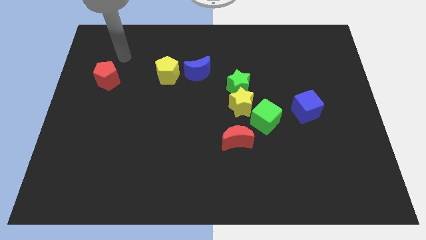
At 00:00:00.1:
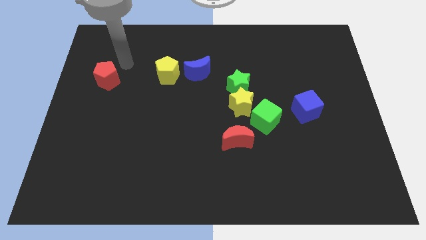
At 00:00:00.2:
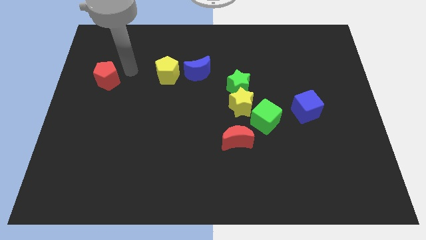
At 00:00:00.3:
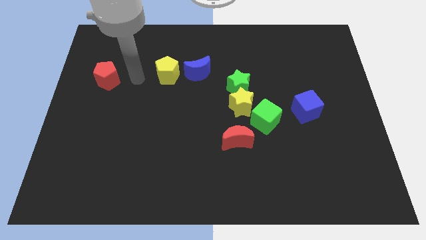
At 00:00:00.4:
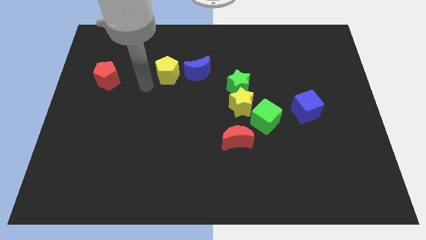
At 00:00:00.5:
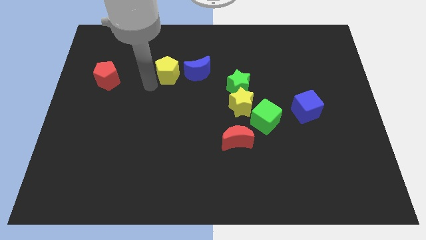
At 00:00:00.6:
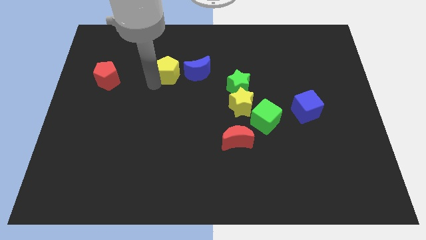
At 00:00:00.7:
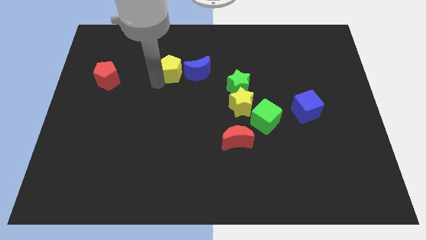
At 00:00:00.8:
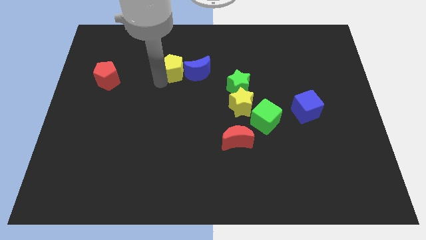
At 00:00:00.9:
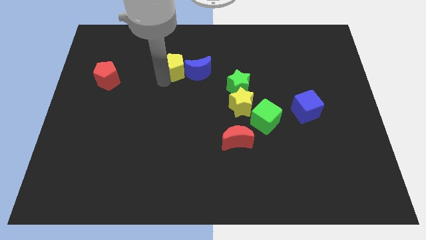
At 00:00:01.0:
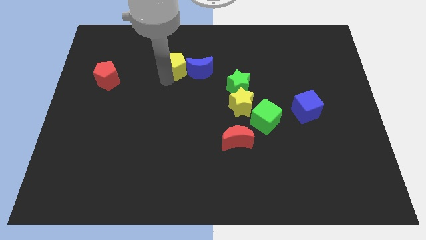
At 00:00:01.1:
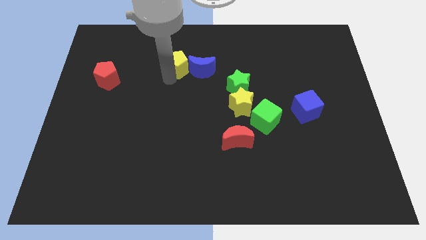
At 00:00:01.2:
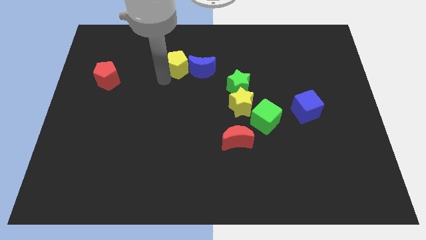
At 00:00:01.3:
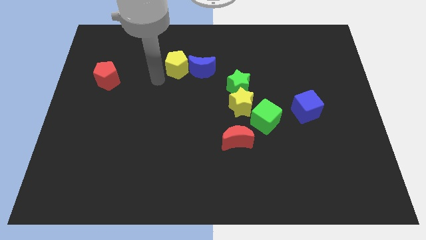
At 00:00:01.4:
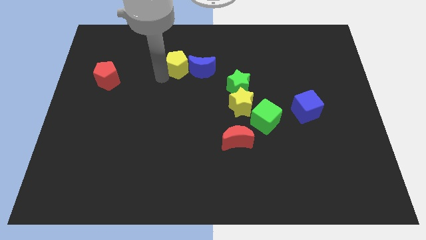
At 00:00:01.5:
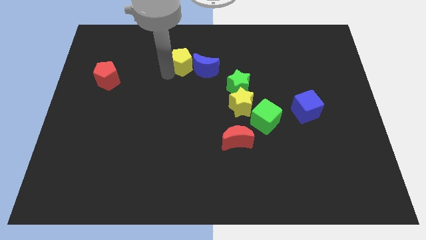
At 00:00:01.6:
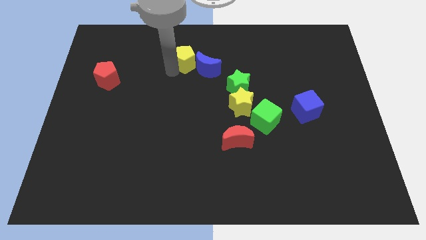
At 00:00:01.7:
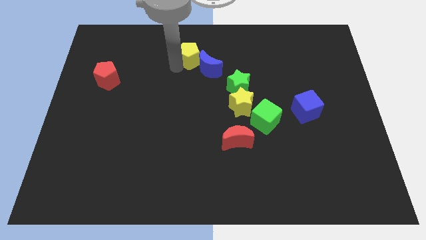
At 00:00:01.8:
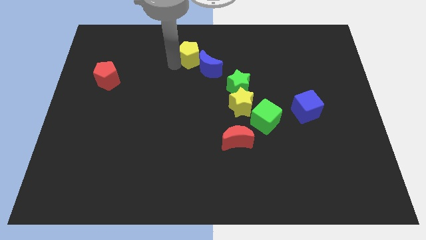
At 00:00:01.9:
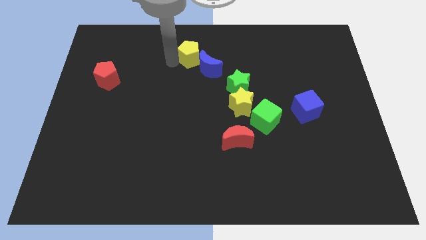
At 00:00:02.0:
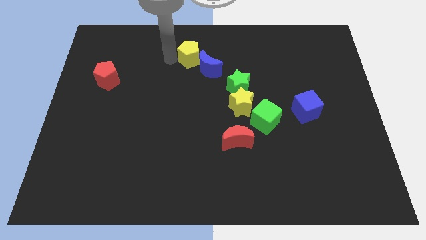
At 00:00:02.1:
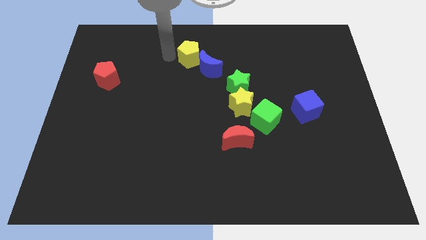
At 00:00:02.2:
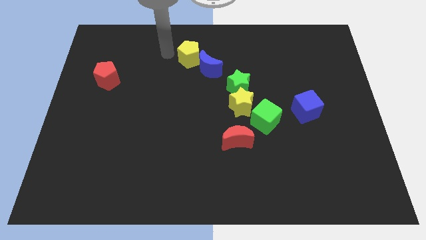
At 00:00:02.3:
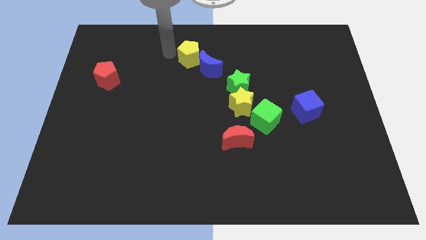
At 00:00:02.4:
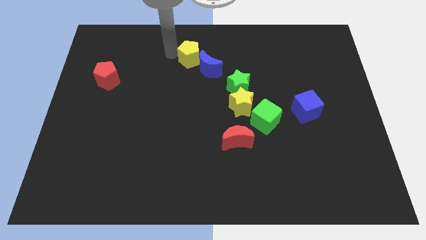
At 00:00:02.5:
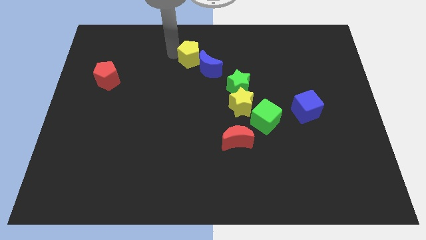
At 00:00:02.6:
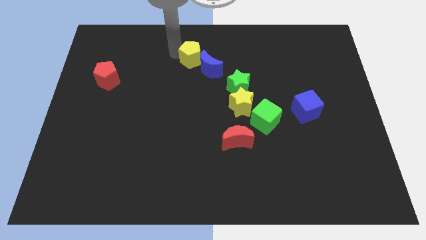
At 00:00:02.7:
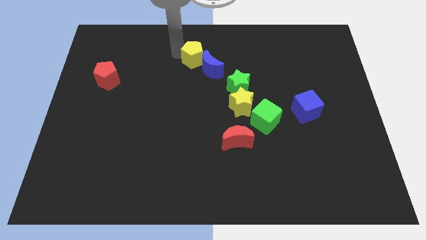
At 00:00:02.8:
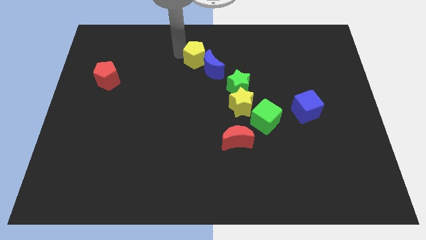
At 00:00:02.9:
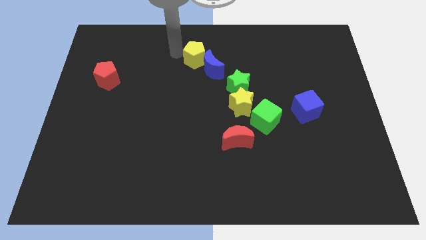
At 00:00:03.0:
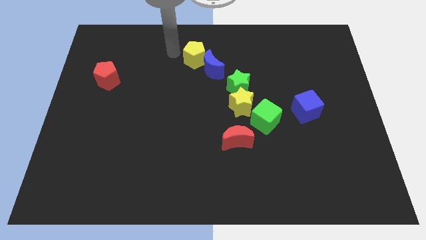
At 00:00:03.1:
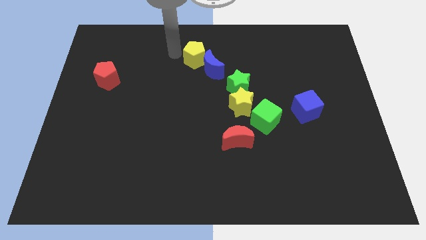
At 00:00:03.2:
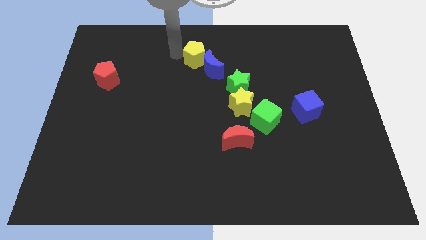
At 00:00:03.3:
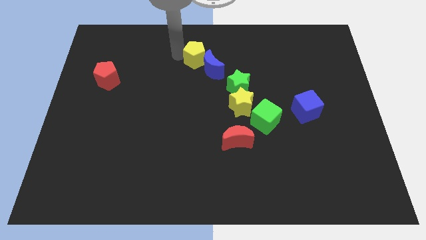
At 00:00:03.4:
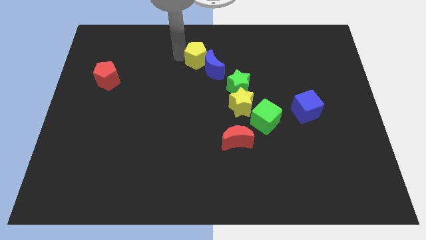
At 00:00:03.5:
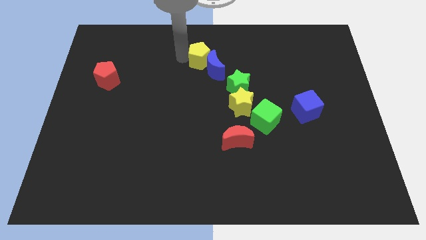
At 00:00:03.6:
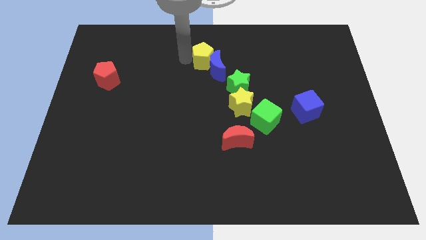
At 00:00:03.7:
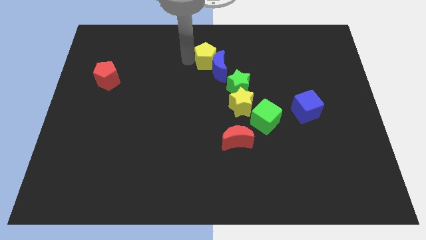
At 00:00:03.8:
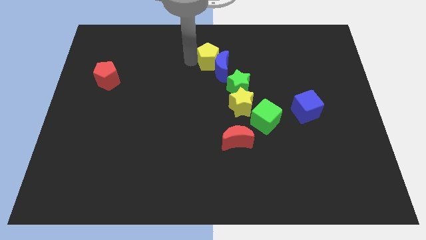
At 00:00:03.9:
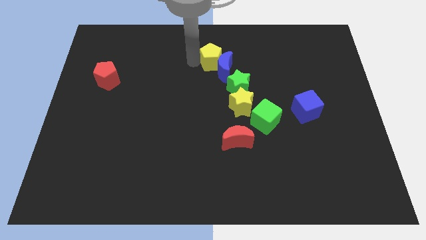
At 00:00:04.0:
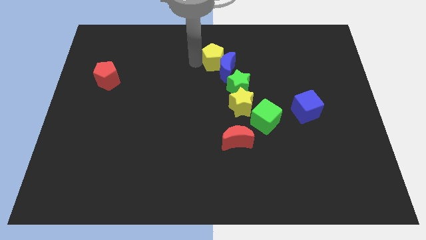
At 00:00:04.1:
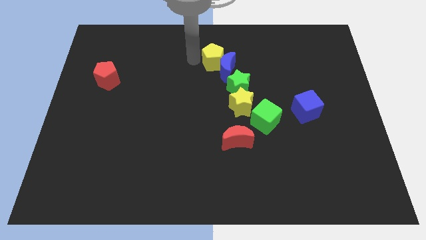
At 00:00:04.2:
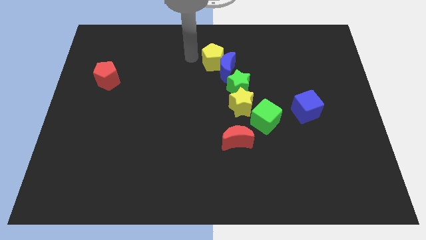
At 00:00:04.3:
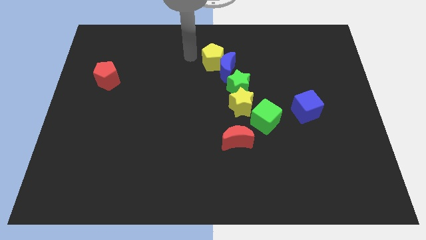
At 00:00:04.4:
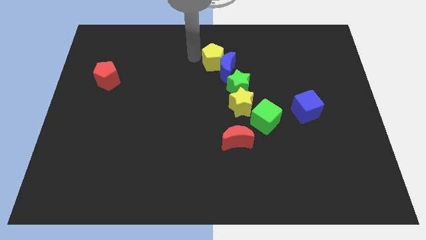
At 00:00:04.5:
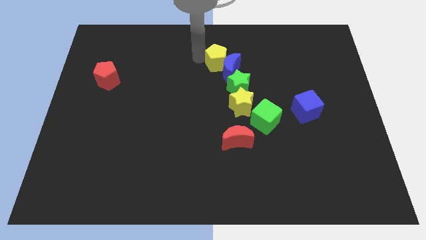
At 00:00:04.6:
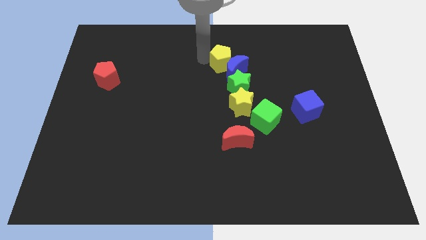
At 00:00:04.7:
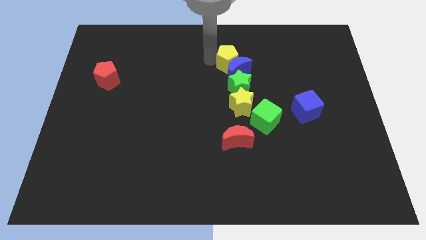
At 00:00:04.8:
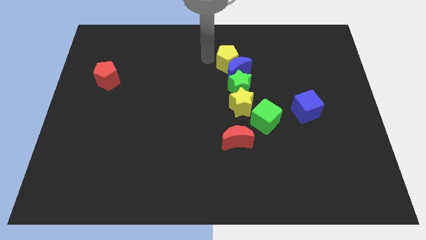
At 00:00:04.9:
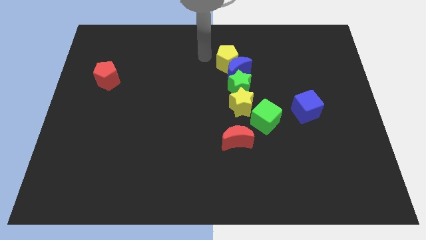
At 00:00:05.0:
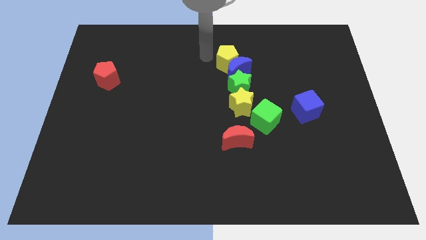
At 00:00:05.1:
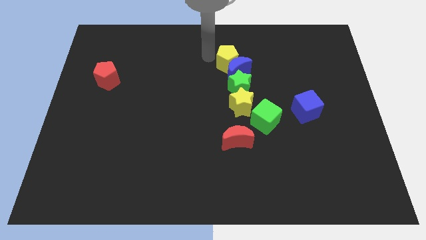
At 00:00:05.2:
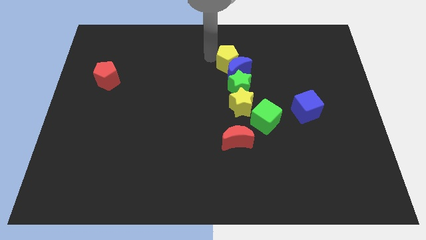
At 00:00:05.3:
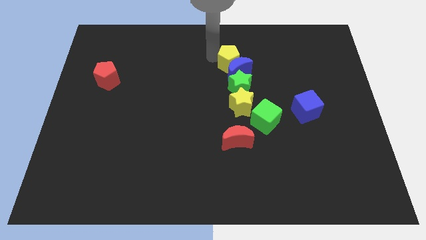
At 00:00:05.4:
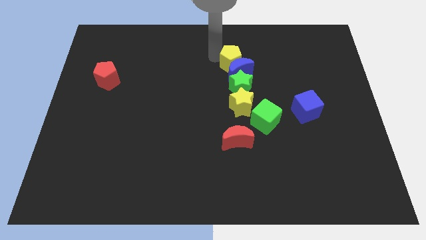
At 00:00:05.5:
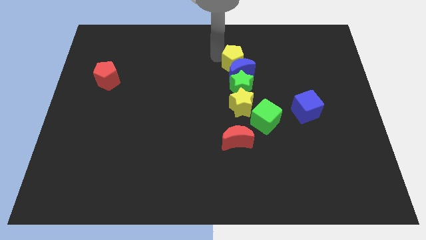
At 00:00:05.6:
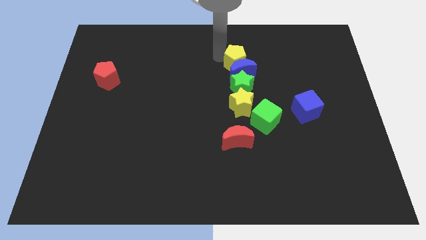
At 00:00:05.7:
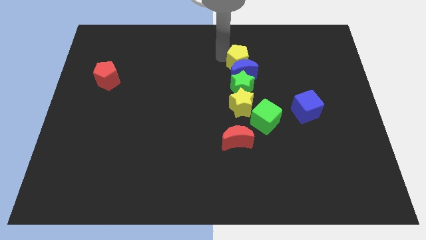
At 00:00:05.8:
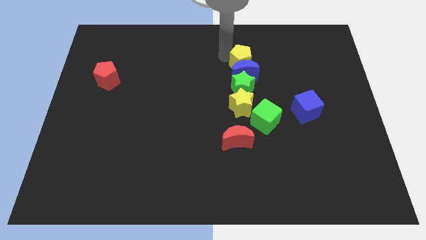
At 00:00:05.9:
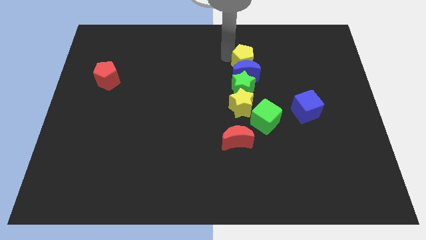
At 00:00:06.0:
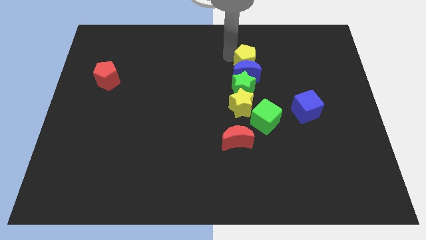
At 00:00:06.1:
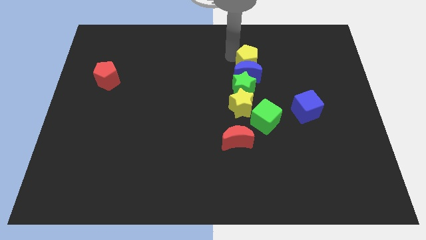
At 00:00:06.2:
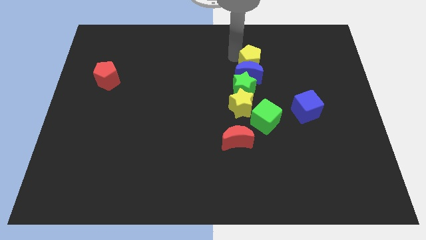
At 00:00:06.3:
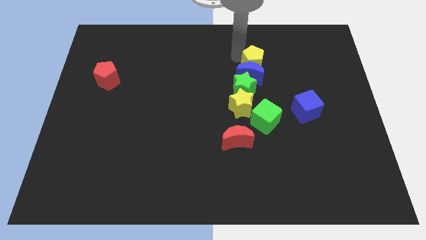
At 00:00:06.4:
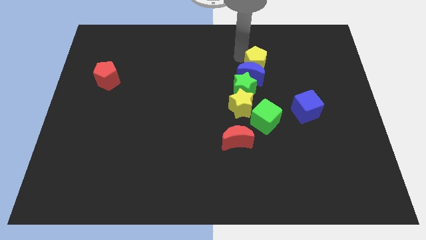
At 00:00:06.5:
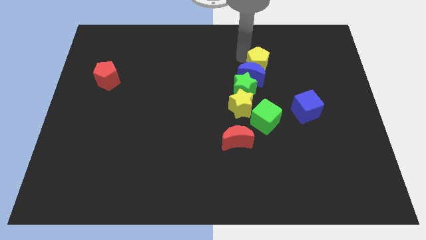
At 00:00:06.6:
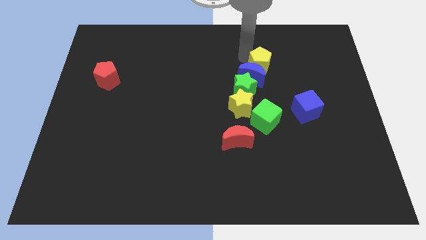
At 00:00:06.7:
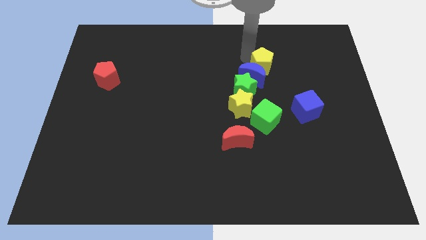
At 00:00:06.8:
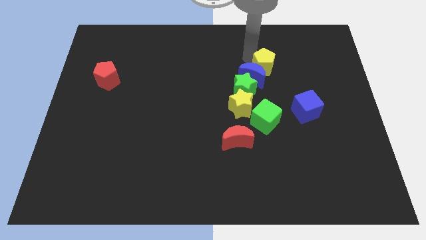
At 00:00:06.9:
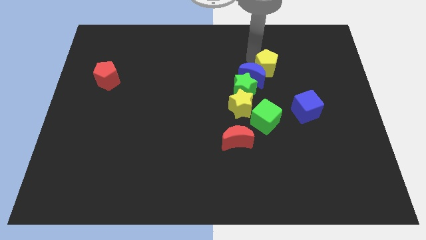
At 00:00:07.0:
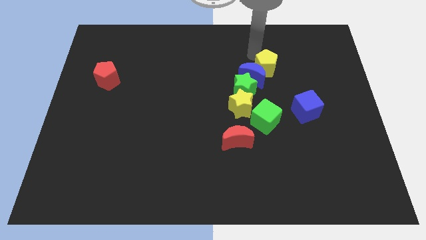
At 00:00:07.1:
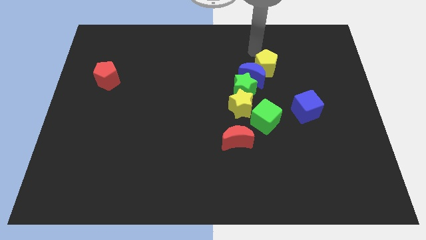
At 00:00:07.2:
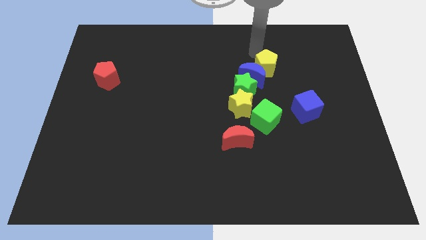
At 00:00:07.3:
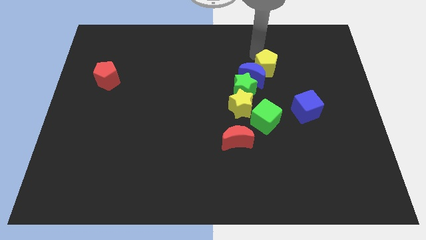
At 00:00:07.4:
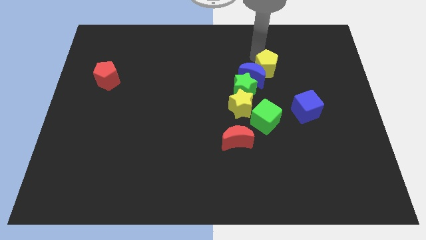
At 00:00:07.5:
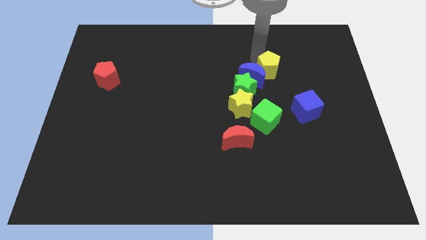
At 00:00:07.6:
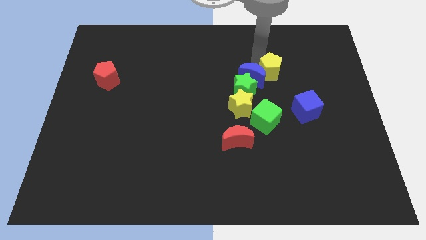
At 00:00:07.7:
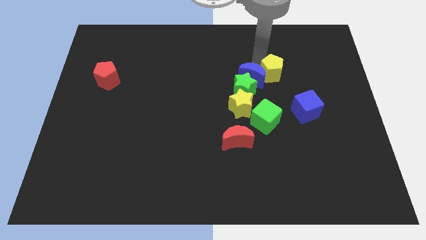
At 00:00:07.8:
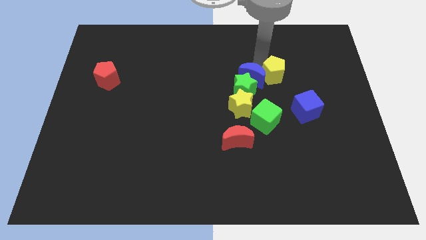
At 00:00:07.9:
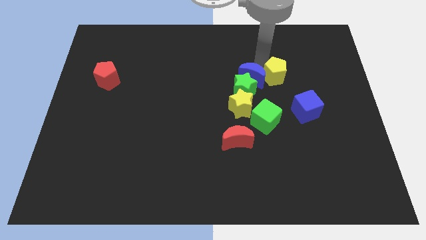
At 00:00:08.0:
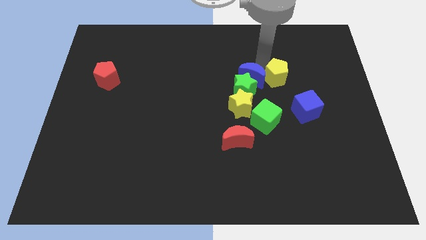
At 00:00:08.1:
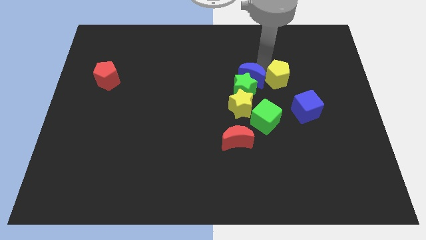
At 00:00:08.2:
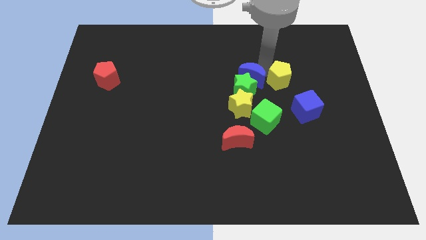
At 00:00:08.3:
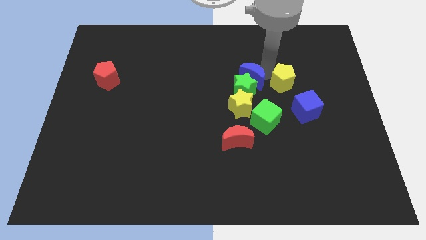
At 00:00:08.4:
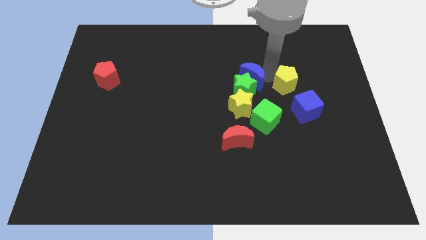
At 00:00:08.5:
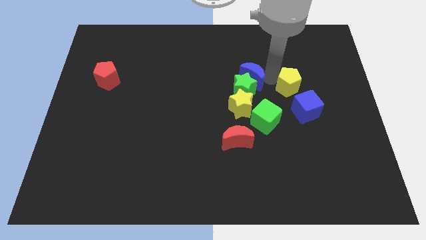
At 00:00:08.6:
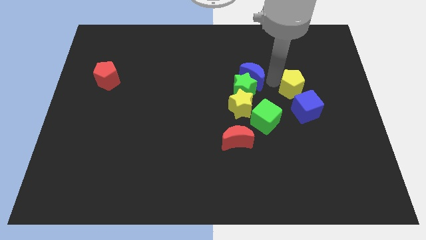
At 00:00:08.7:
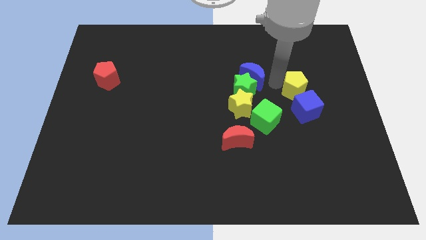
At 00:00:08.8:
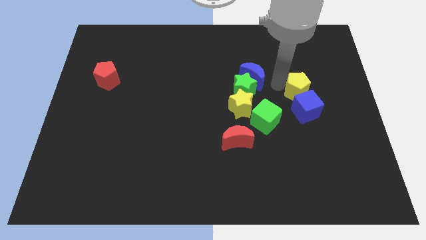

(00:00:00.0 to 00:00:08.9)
move the yellow pentagon towards the blue cube
